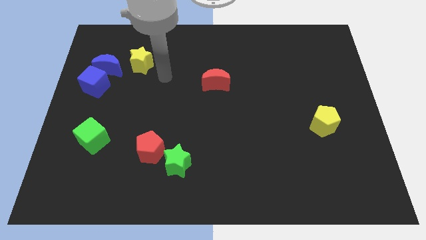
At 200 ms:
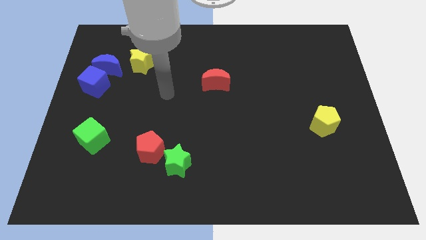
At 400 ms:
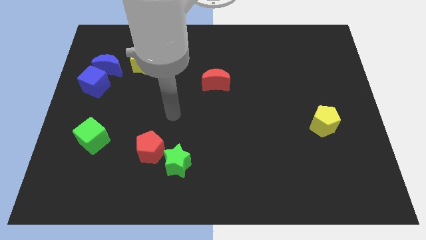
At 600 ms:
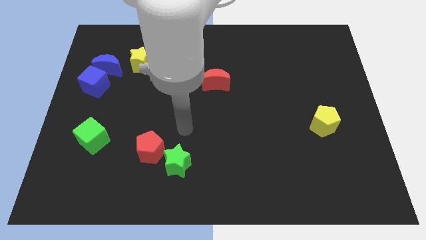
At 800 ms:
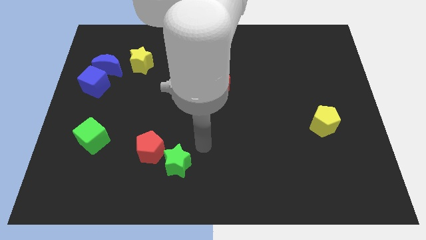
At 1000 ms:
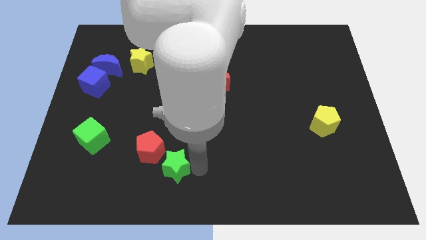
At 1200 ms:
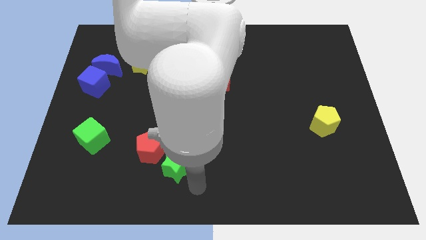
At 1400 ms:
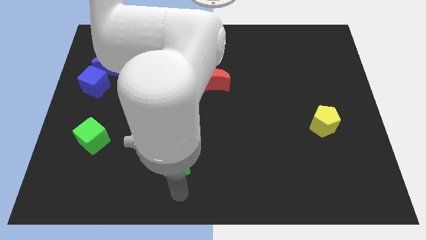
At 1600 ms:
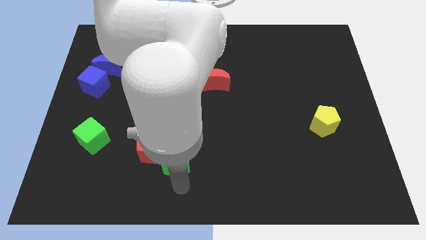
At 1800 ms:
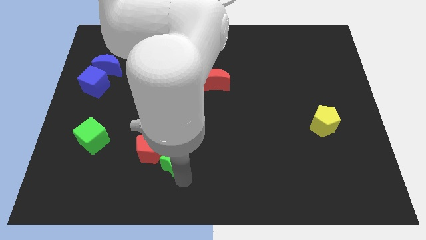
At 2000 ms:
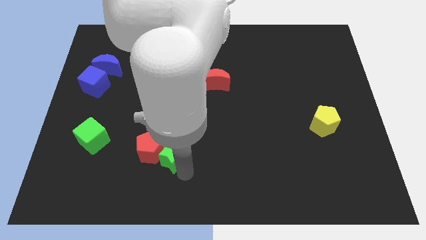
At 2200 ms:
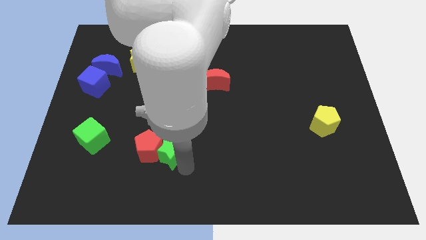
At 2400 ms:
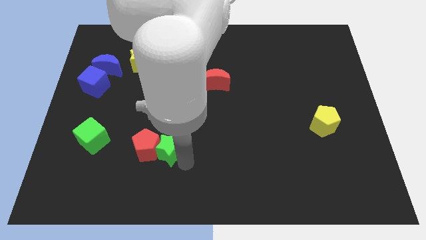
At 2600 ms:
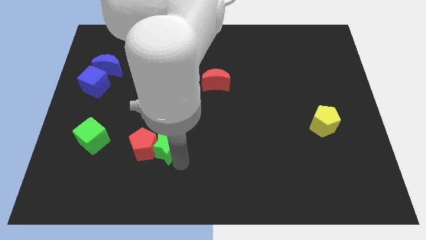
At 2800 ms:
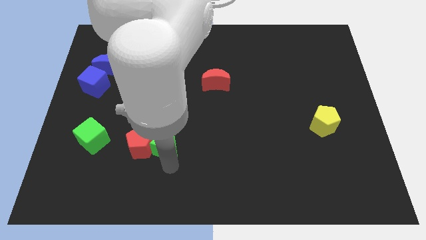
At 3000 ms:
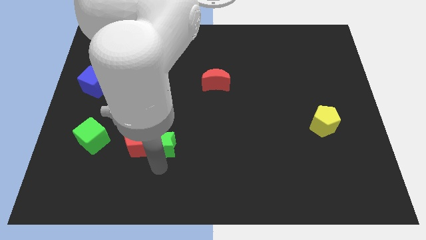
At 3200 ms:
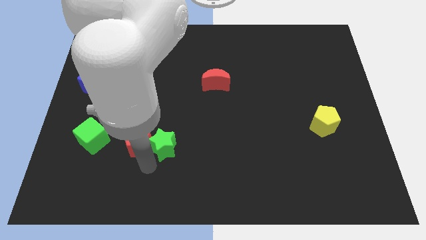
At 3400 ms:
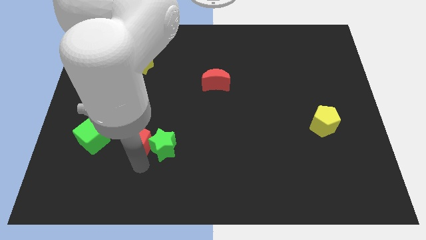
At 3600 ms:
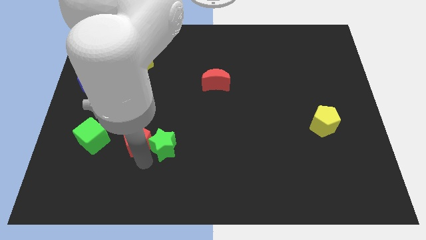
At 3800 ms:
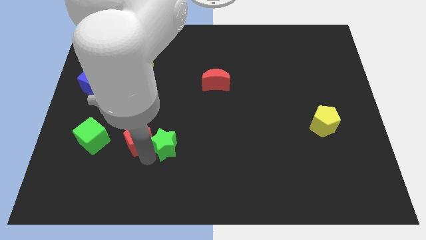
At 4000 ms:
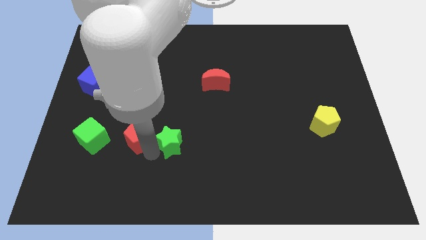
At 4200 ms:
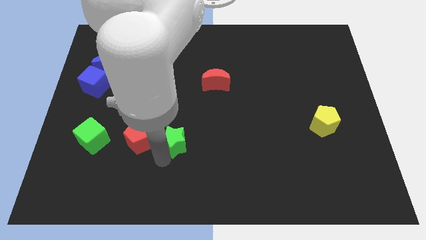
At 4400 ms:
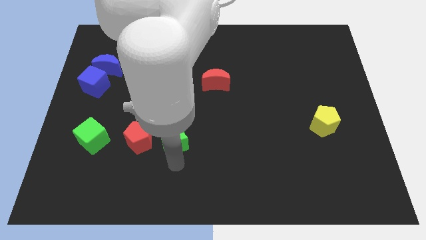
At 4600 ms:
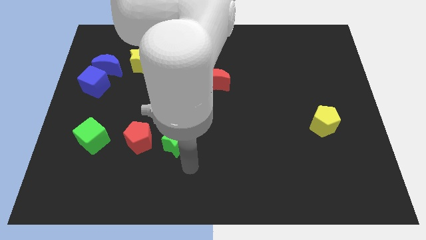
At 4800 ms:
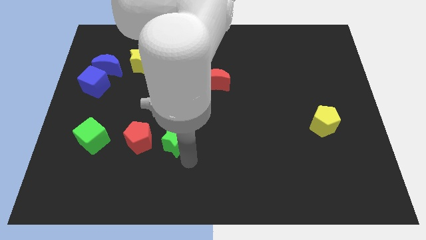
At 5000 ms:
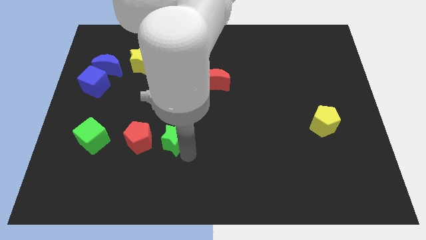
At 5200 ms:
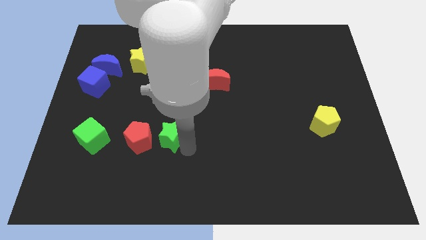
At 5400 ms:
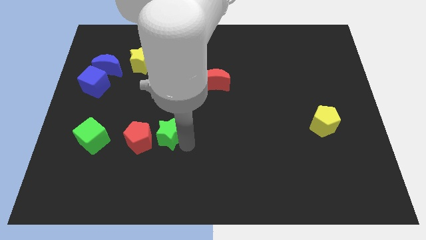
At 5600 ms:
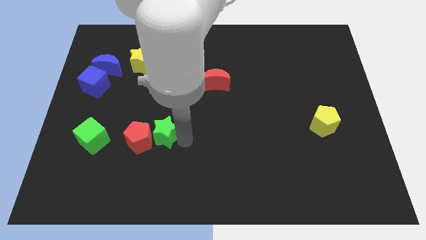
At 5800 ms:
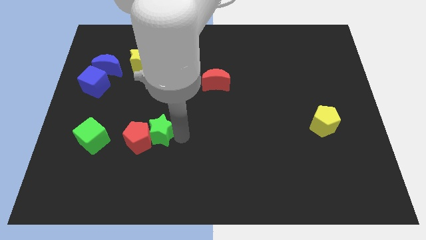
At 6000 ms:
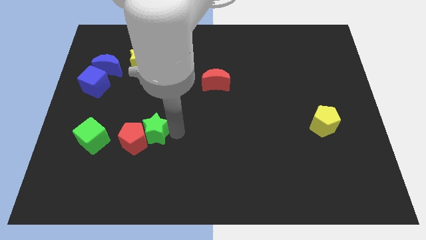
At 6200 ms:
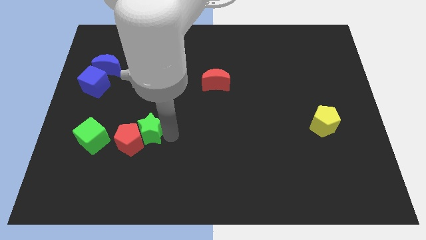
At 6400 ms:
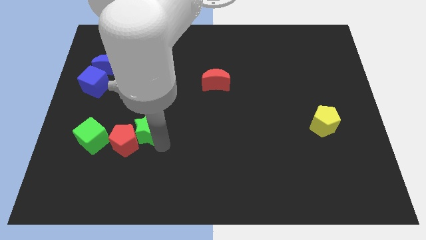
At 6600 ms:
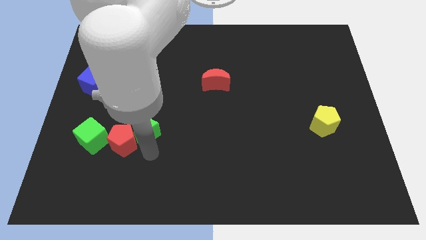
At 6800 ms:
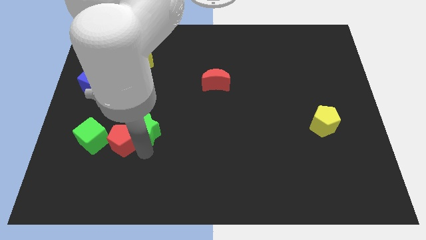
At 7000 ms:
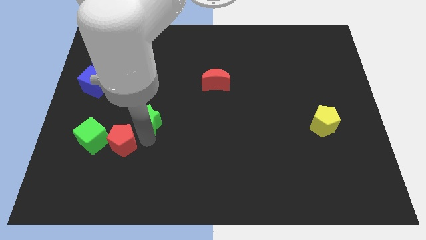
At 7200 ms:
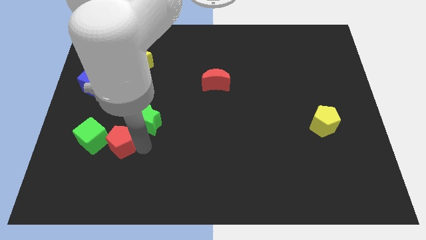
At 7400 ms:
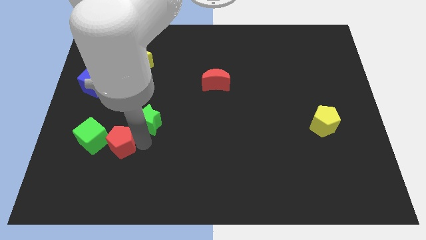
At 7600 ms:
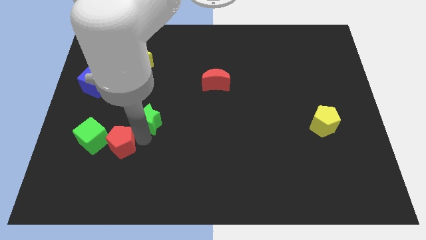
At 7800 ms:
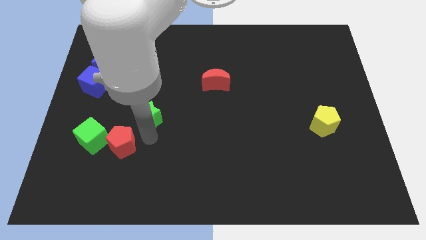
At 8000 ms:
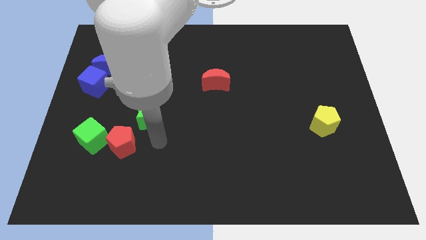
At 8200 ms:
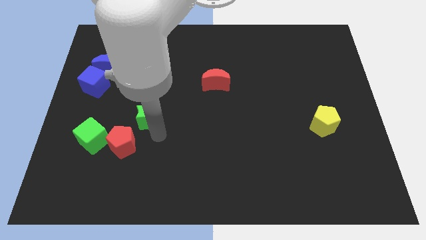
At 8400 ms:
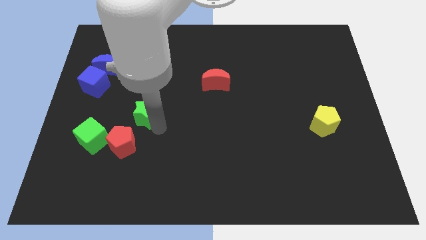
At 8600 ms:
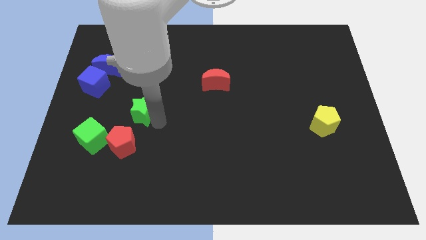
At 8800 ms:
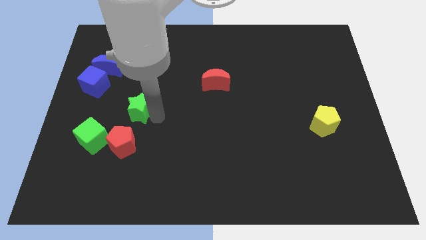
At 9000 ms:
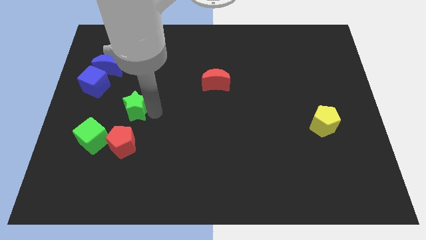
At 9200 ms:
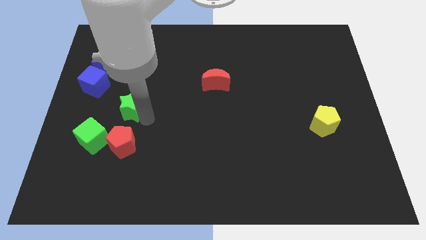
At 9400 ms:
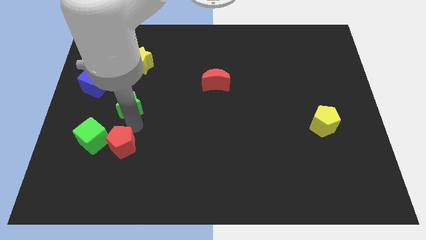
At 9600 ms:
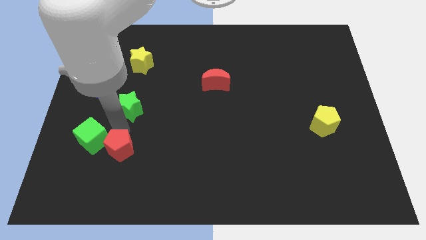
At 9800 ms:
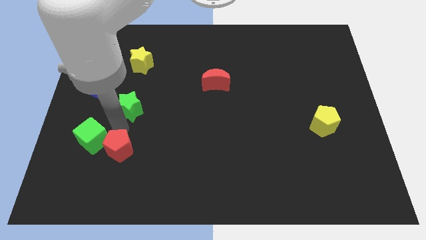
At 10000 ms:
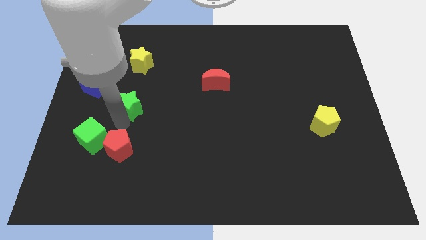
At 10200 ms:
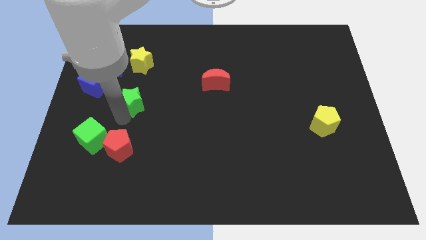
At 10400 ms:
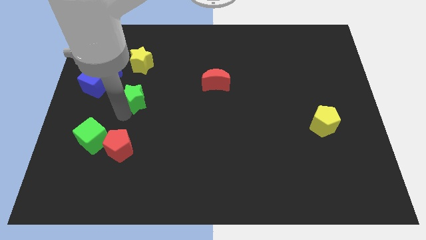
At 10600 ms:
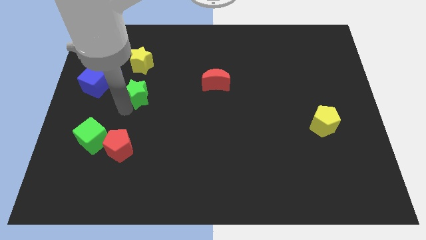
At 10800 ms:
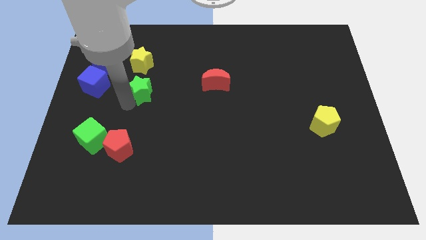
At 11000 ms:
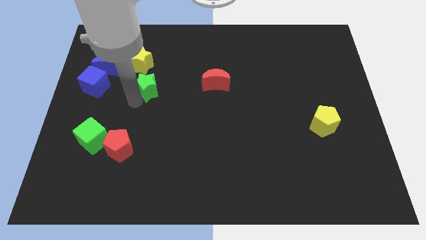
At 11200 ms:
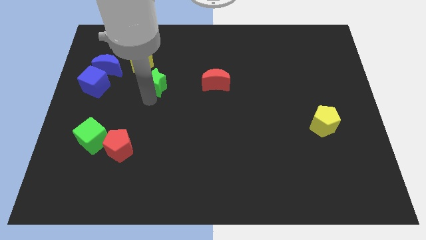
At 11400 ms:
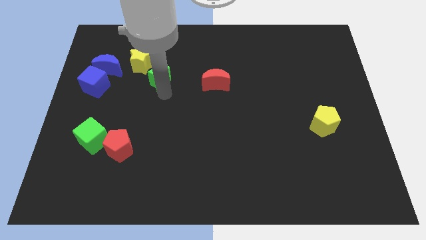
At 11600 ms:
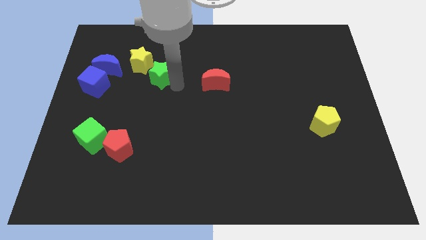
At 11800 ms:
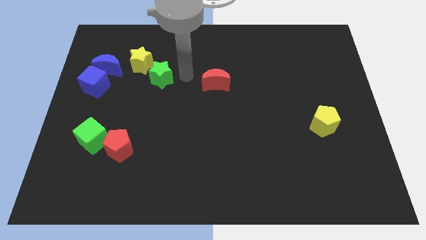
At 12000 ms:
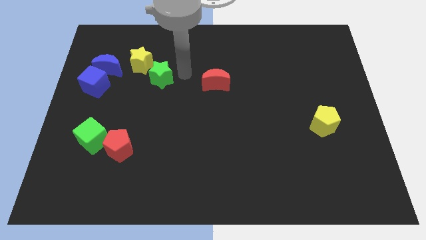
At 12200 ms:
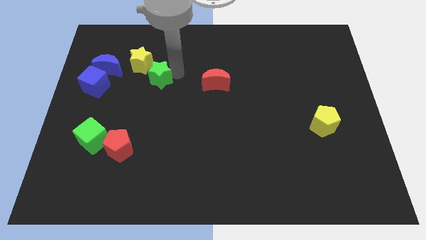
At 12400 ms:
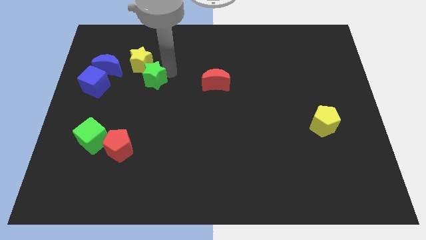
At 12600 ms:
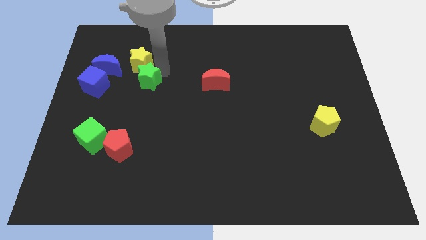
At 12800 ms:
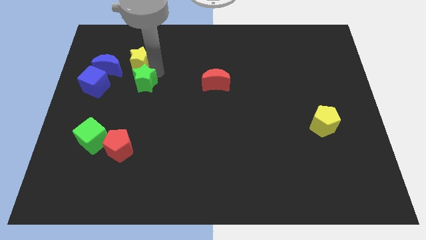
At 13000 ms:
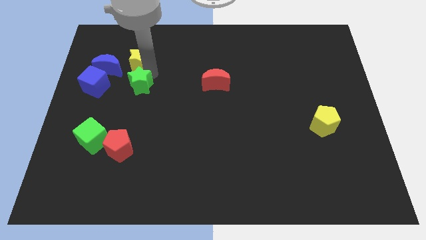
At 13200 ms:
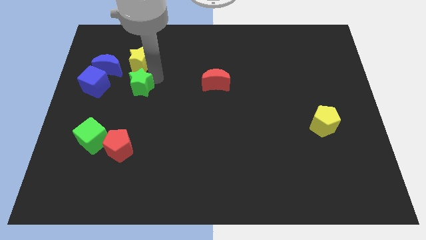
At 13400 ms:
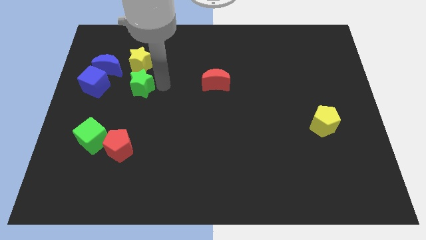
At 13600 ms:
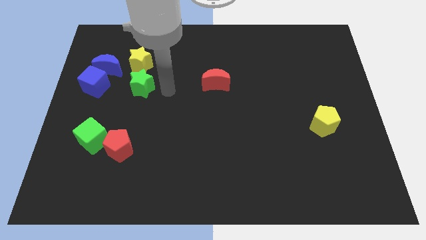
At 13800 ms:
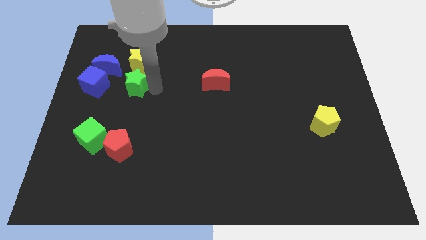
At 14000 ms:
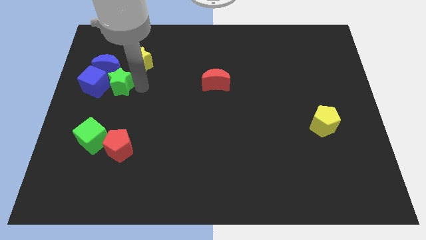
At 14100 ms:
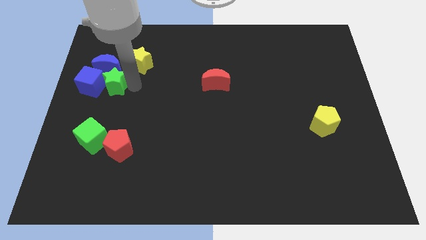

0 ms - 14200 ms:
slide the green star next to the blue cube

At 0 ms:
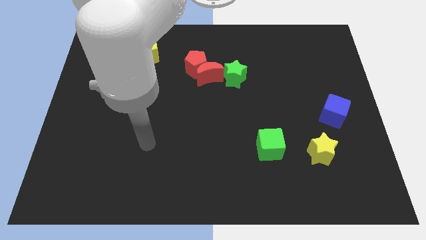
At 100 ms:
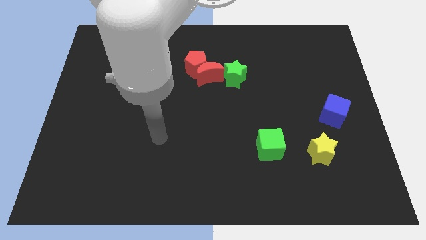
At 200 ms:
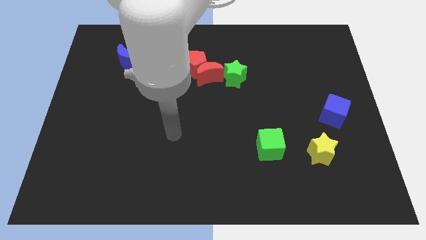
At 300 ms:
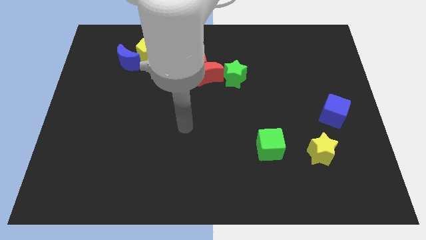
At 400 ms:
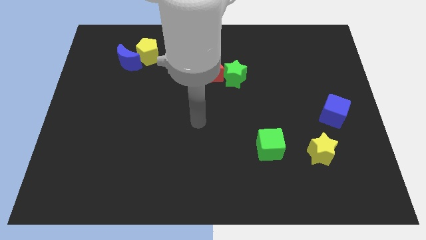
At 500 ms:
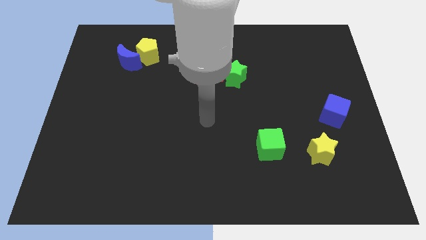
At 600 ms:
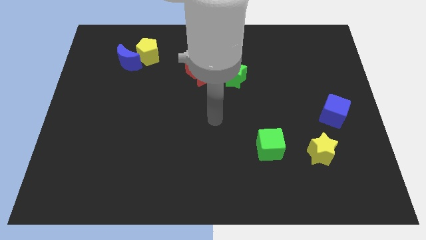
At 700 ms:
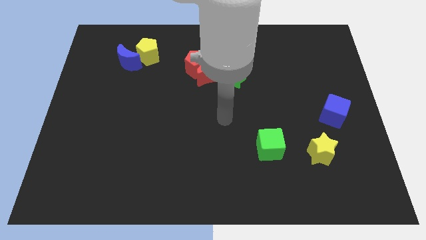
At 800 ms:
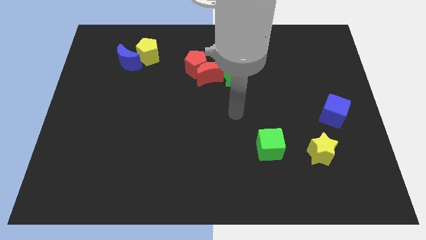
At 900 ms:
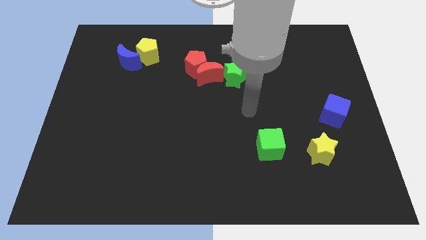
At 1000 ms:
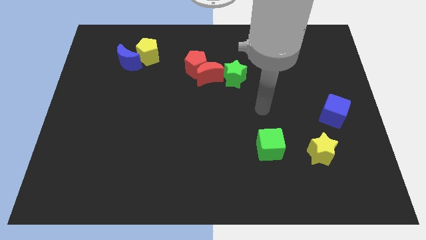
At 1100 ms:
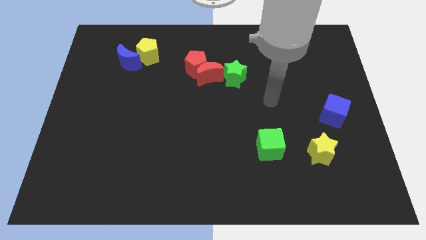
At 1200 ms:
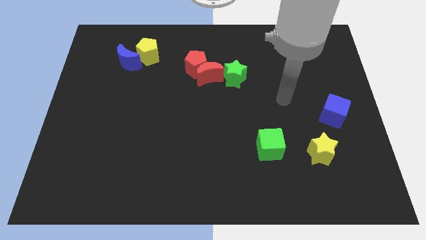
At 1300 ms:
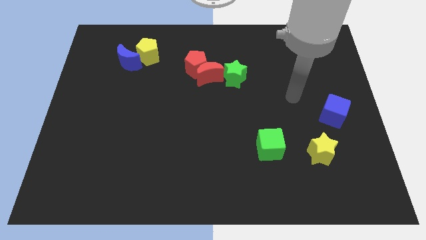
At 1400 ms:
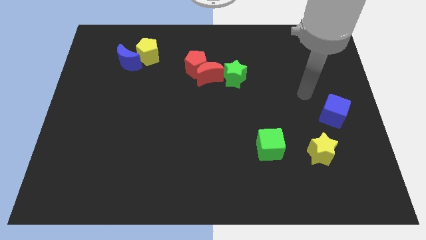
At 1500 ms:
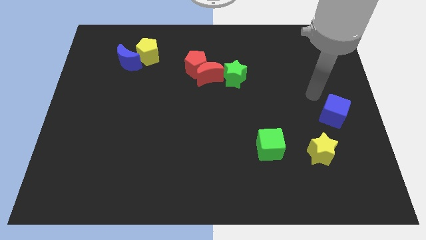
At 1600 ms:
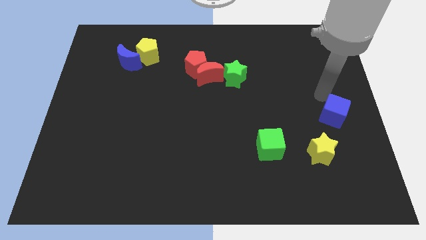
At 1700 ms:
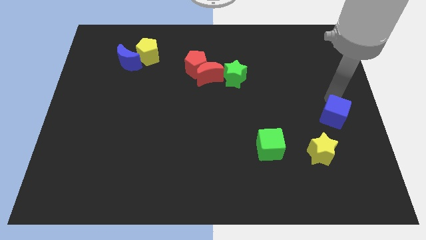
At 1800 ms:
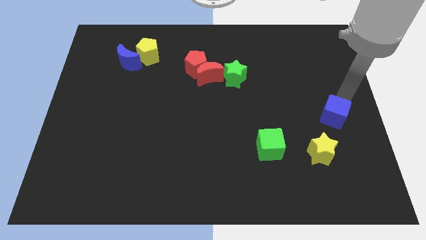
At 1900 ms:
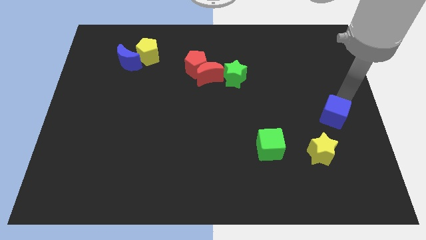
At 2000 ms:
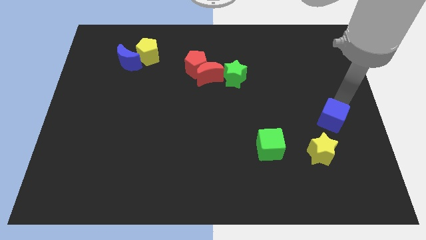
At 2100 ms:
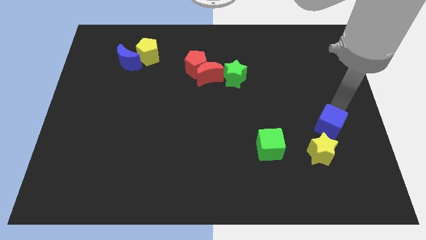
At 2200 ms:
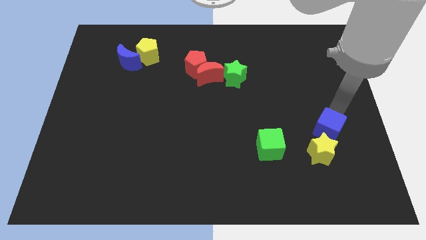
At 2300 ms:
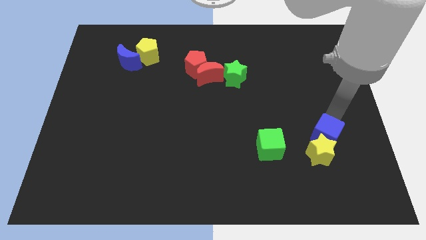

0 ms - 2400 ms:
put the blue cube next to the yellow star
